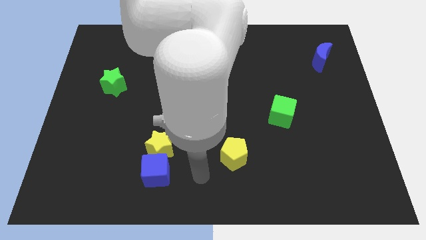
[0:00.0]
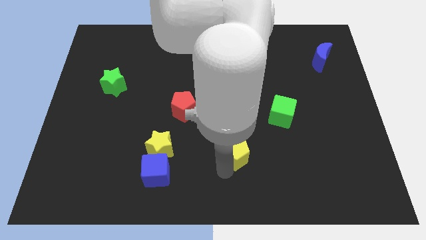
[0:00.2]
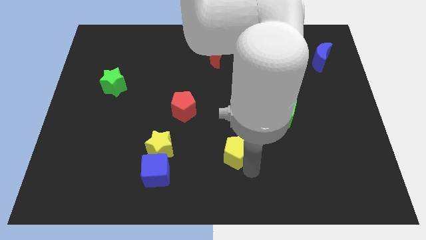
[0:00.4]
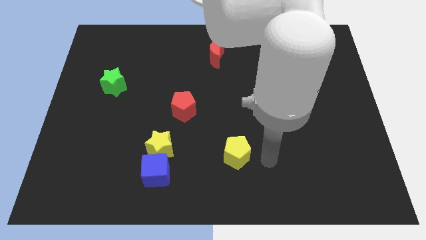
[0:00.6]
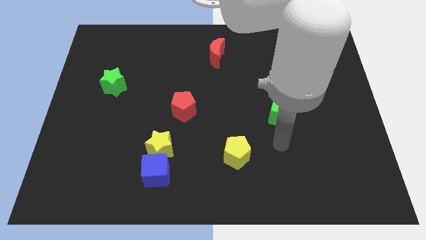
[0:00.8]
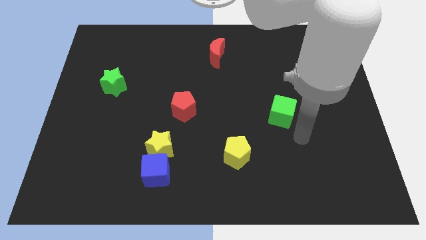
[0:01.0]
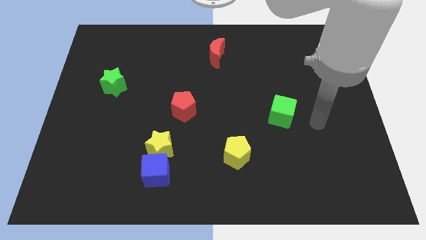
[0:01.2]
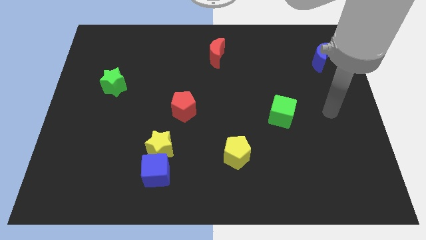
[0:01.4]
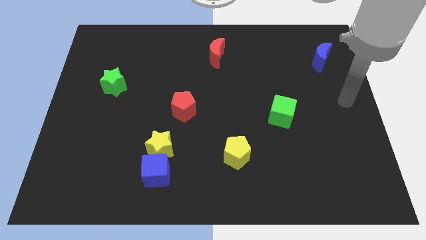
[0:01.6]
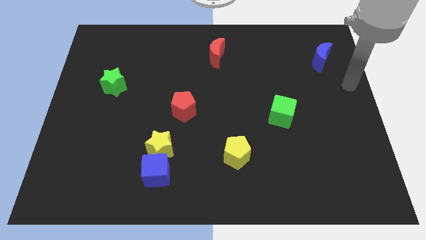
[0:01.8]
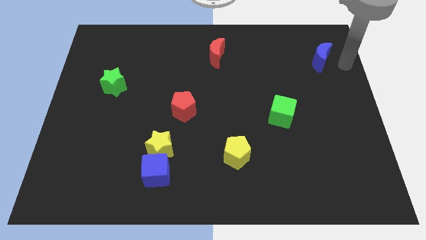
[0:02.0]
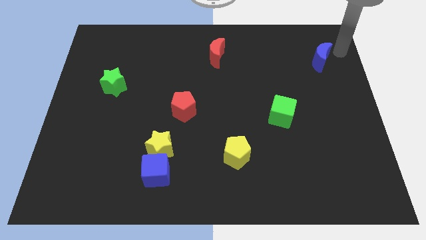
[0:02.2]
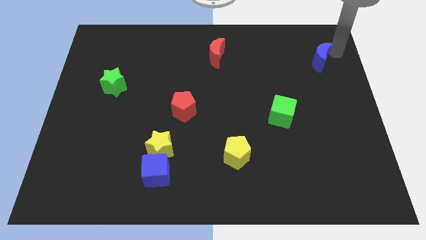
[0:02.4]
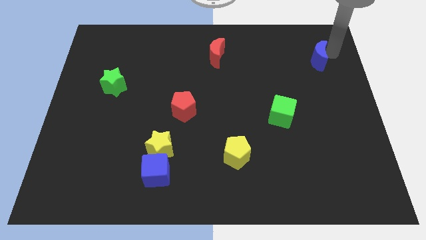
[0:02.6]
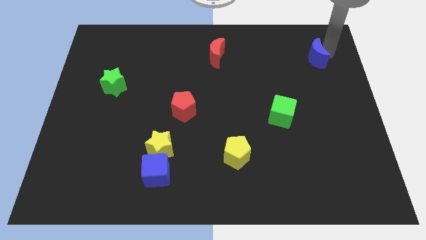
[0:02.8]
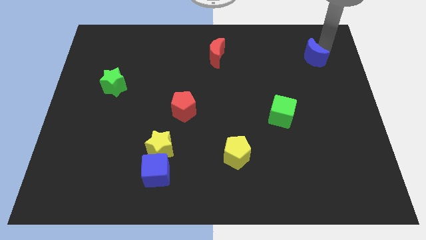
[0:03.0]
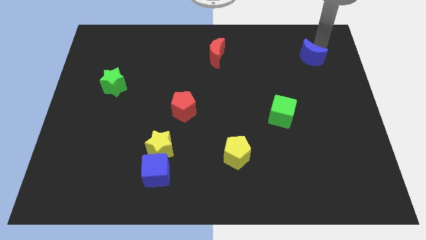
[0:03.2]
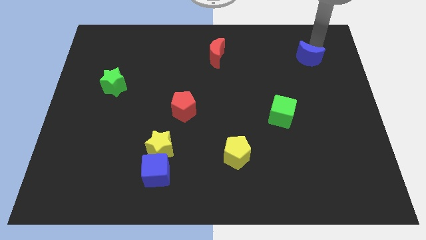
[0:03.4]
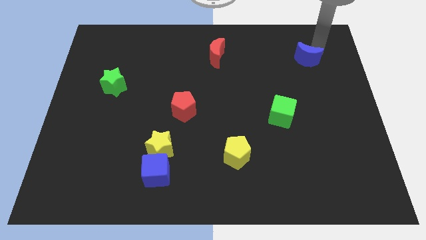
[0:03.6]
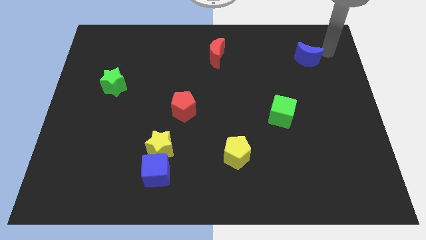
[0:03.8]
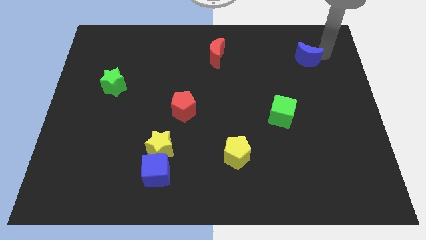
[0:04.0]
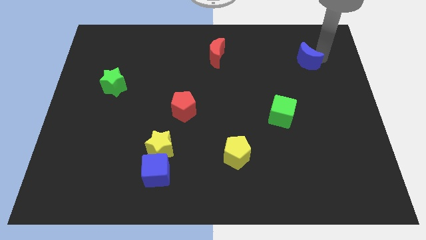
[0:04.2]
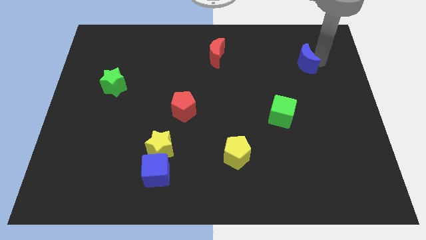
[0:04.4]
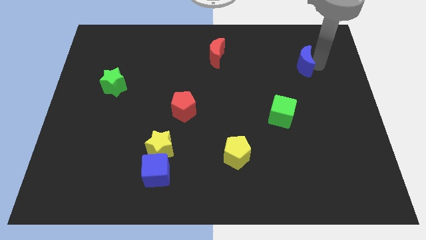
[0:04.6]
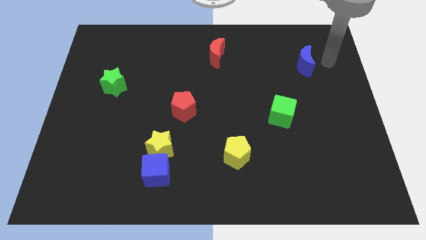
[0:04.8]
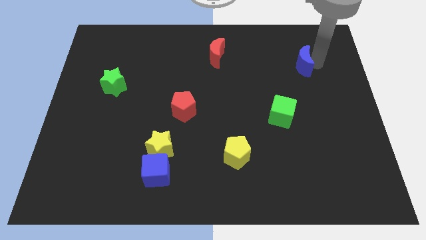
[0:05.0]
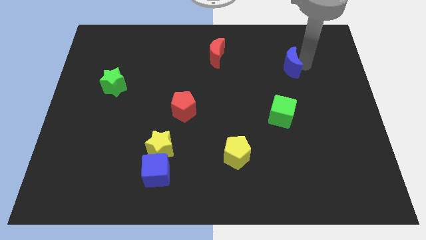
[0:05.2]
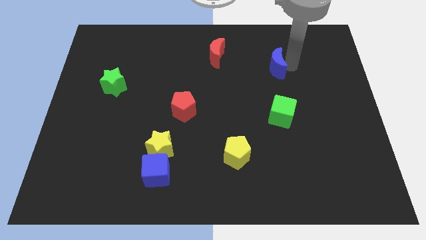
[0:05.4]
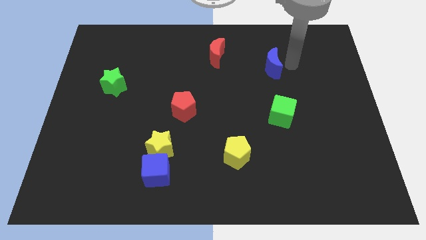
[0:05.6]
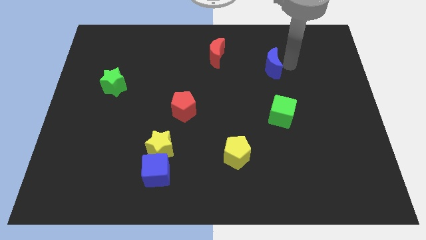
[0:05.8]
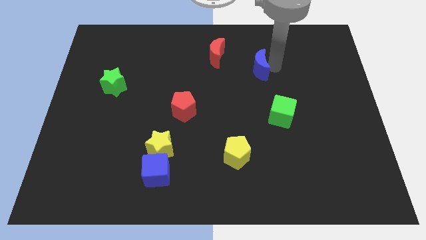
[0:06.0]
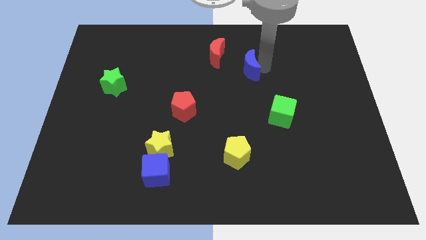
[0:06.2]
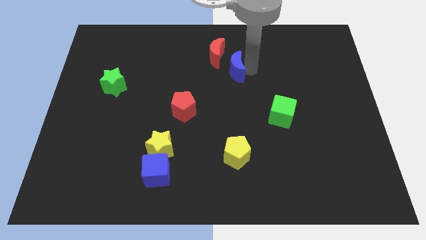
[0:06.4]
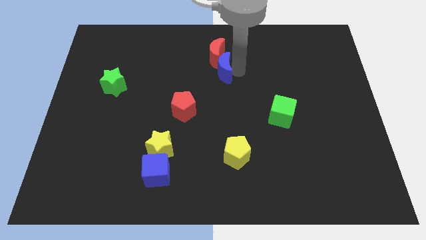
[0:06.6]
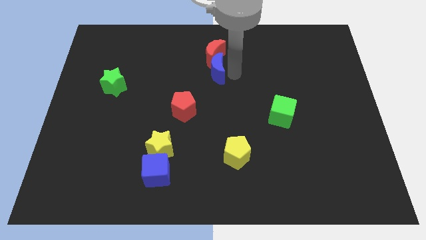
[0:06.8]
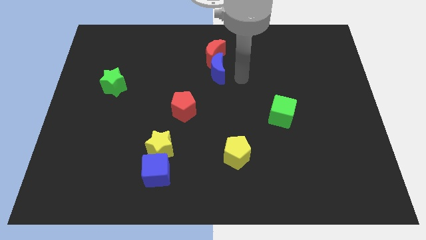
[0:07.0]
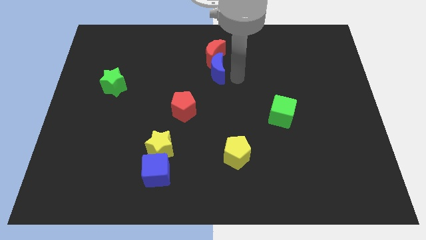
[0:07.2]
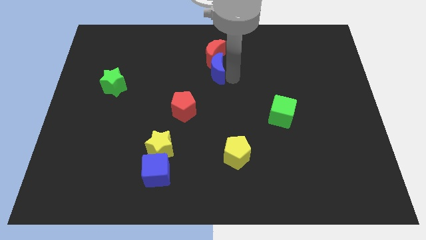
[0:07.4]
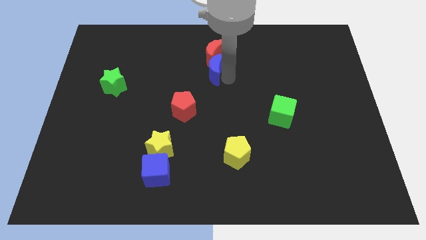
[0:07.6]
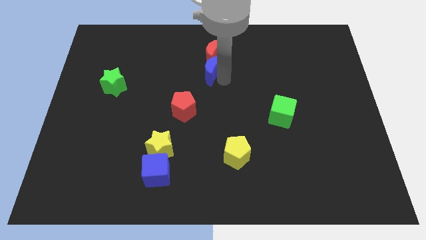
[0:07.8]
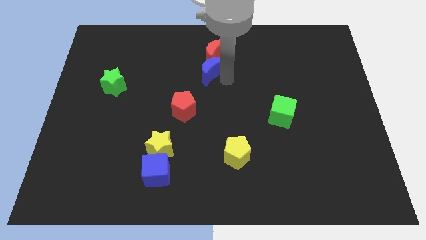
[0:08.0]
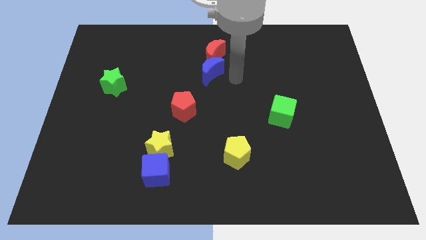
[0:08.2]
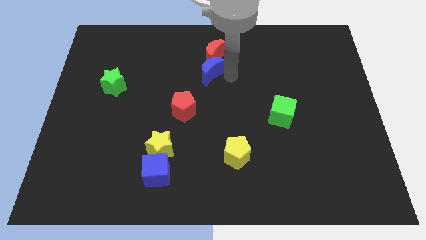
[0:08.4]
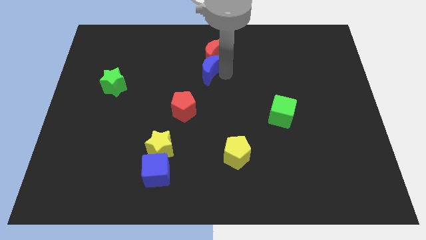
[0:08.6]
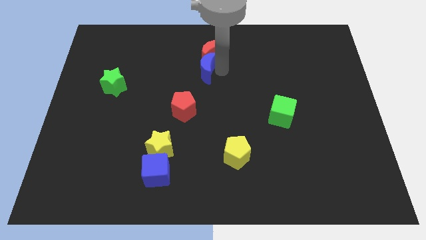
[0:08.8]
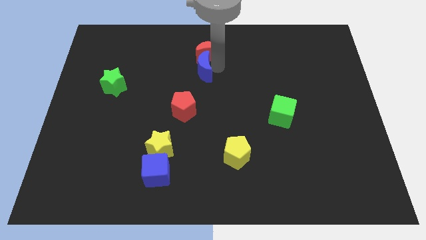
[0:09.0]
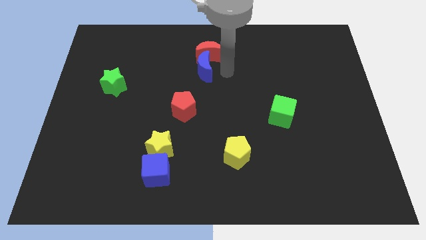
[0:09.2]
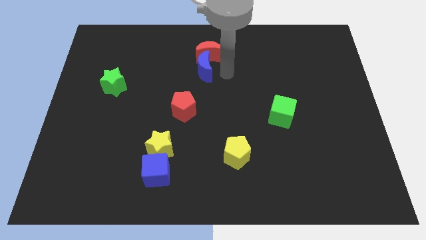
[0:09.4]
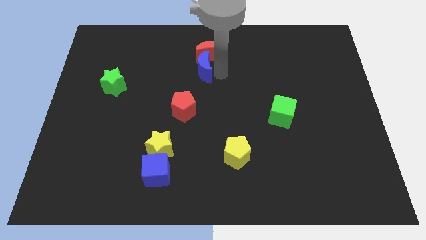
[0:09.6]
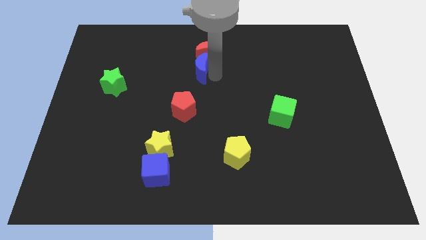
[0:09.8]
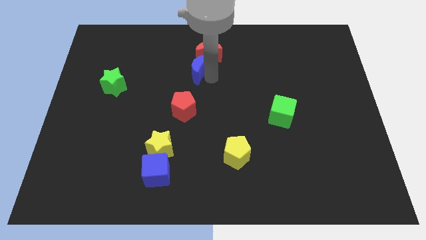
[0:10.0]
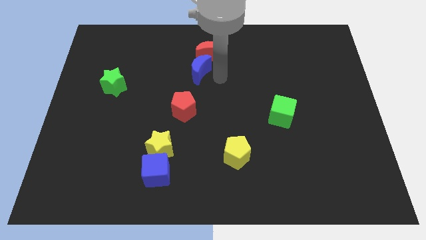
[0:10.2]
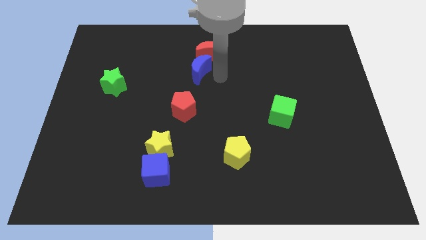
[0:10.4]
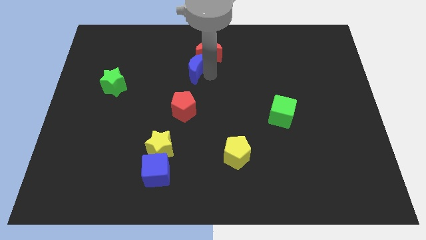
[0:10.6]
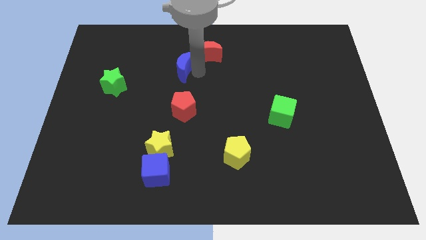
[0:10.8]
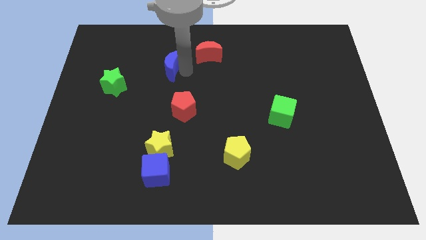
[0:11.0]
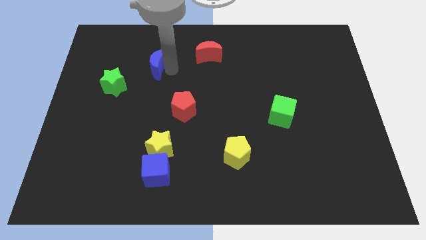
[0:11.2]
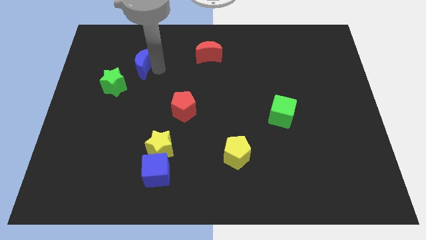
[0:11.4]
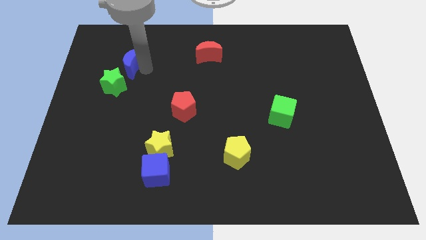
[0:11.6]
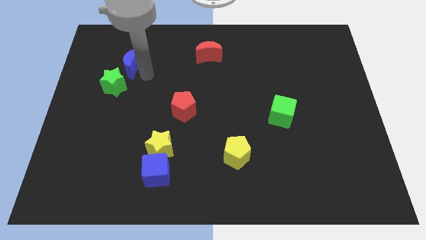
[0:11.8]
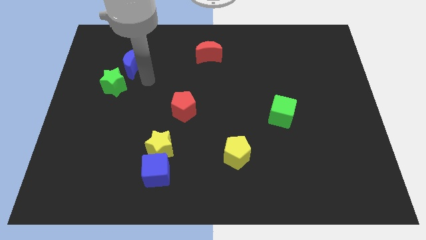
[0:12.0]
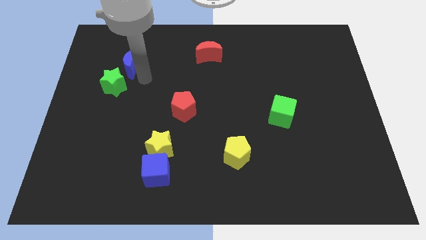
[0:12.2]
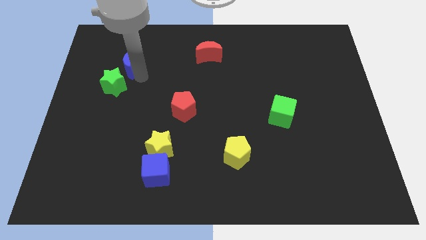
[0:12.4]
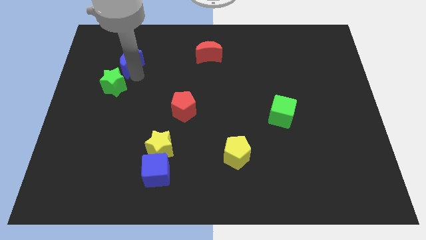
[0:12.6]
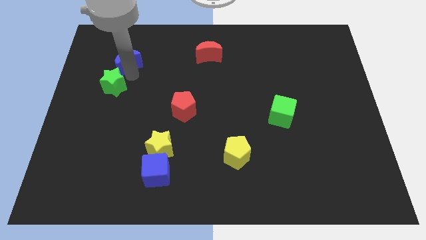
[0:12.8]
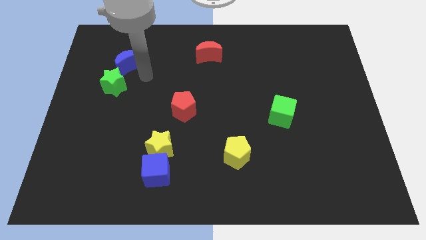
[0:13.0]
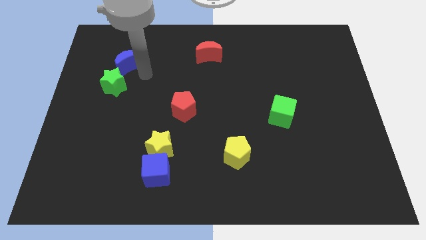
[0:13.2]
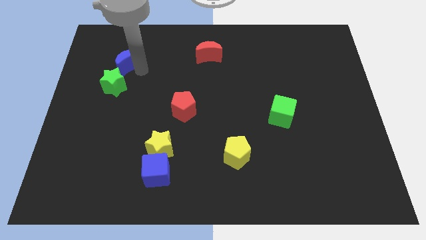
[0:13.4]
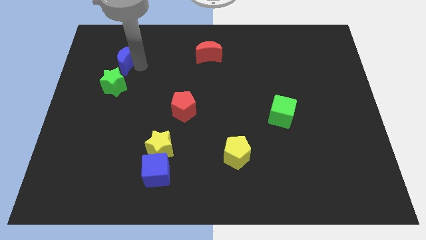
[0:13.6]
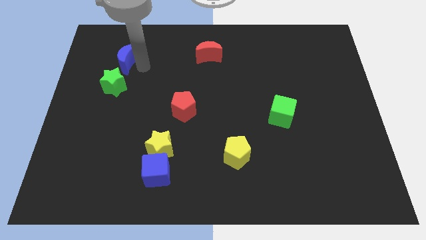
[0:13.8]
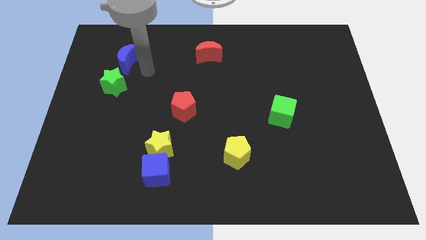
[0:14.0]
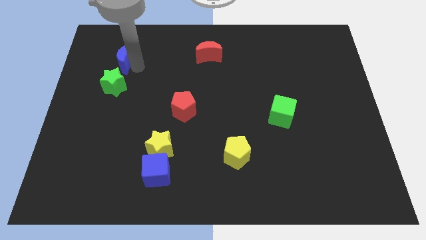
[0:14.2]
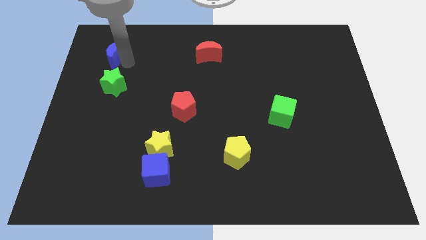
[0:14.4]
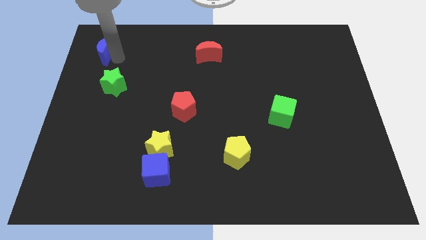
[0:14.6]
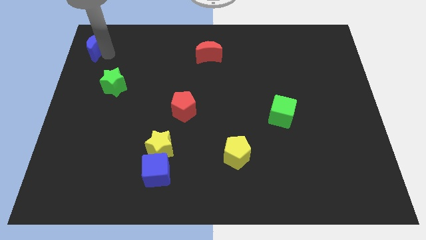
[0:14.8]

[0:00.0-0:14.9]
move the blue moon to the top left corner

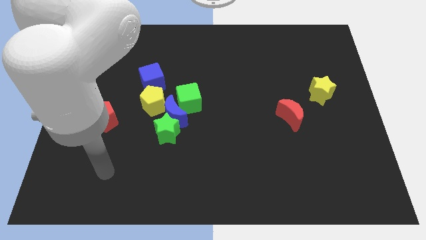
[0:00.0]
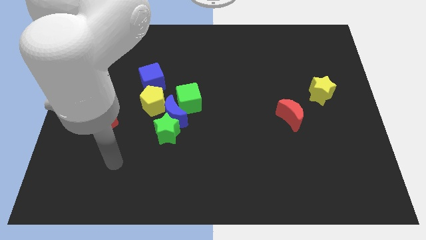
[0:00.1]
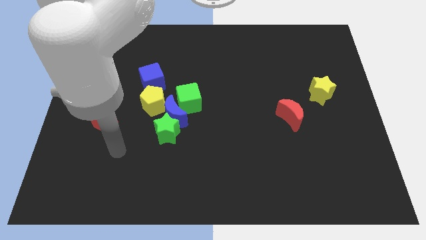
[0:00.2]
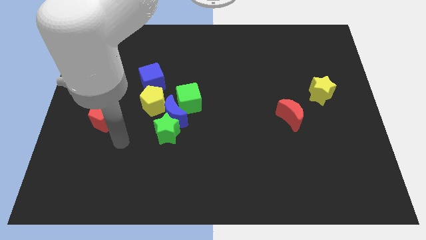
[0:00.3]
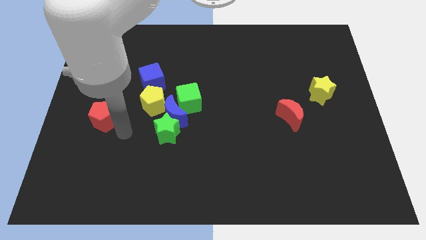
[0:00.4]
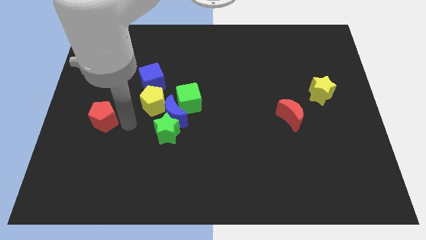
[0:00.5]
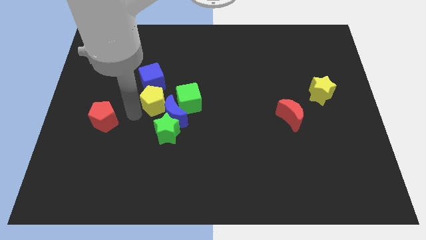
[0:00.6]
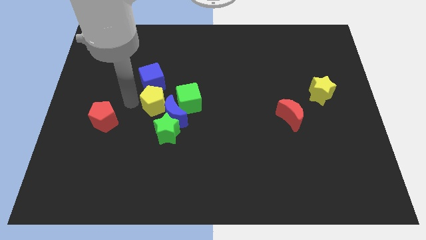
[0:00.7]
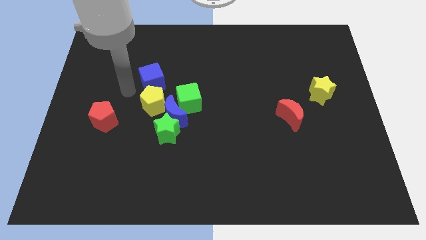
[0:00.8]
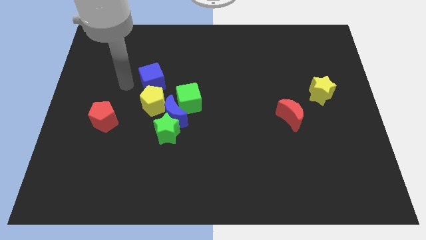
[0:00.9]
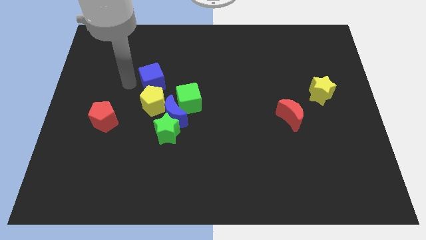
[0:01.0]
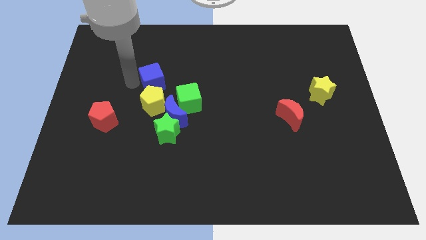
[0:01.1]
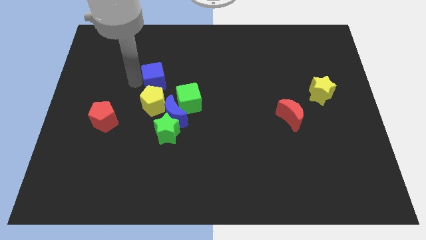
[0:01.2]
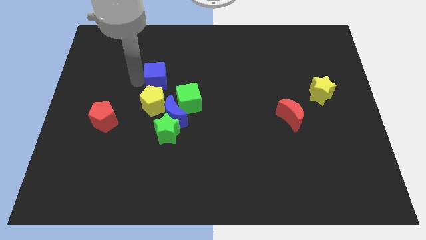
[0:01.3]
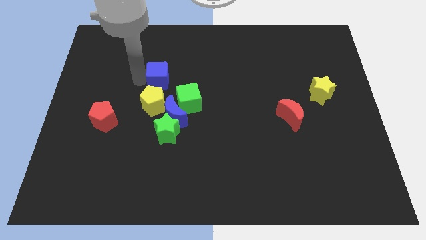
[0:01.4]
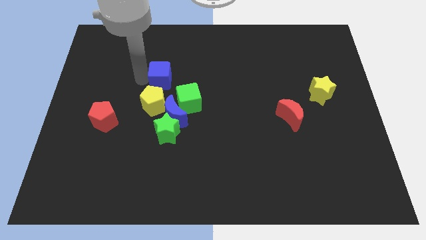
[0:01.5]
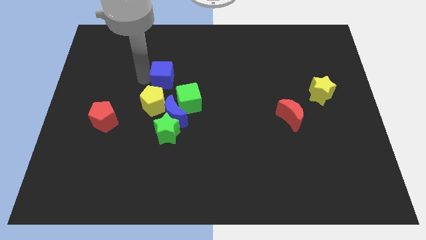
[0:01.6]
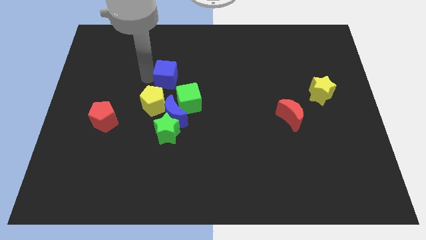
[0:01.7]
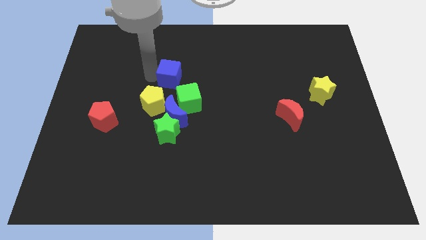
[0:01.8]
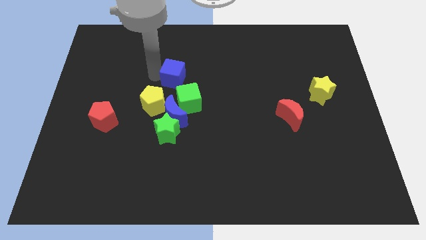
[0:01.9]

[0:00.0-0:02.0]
put the blue cube to the middle
